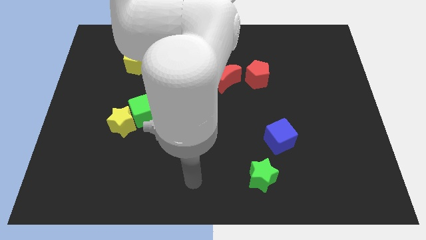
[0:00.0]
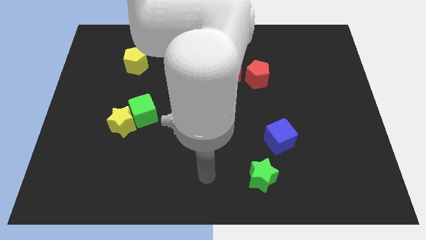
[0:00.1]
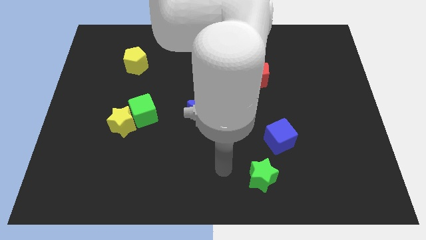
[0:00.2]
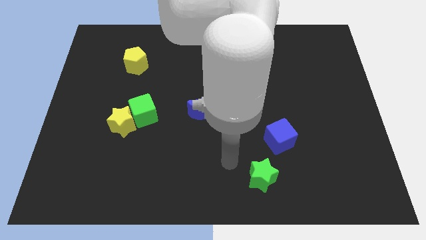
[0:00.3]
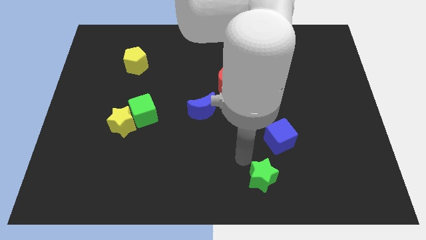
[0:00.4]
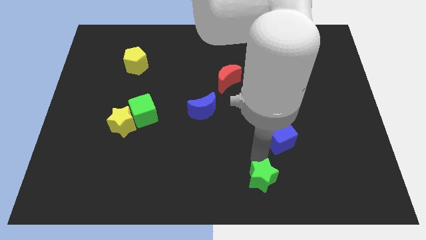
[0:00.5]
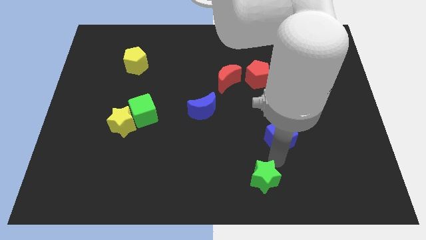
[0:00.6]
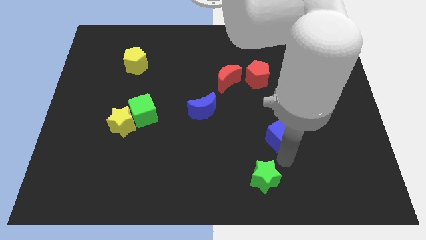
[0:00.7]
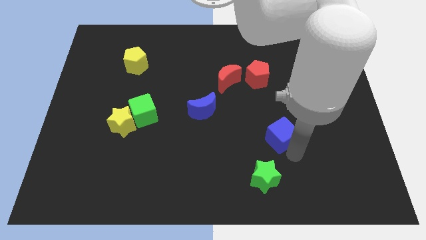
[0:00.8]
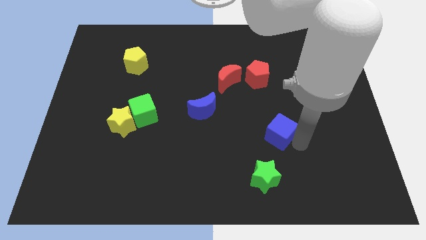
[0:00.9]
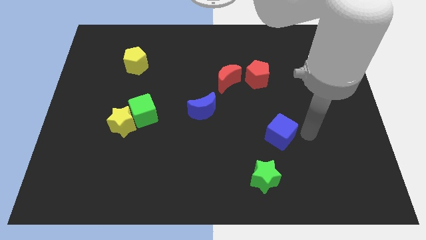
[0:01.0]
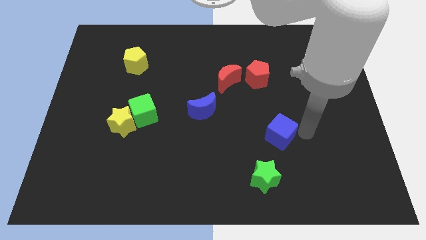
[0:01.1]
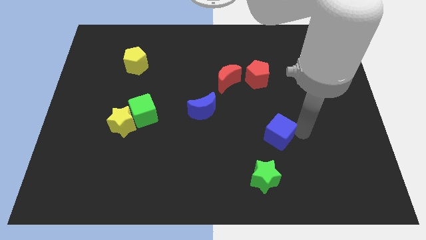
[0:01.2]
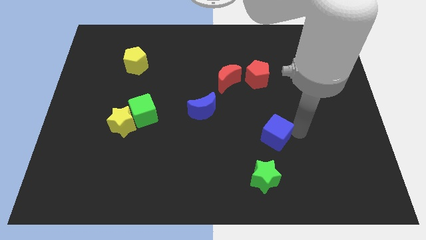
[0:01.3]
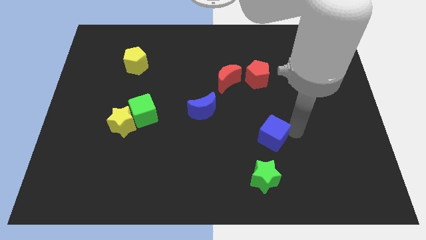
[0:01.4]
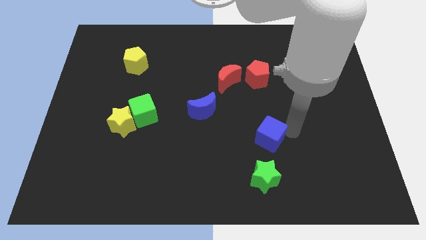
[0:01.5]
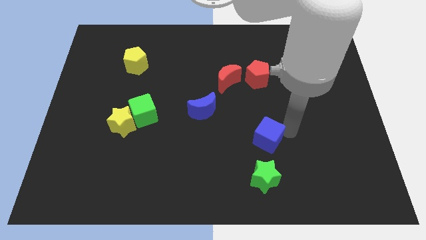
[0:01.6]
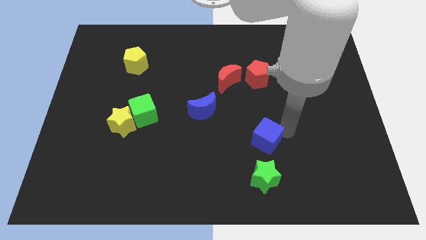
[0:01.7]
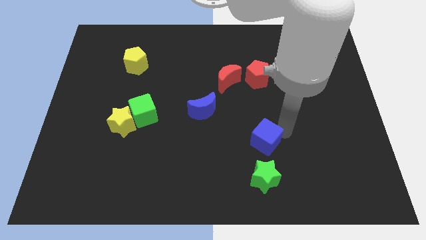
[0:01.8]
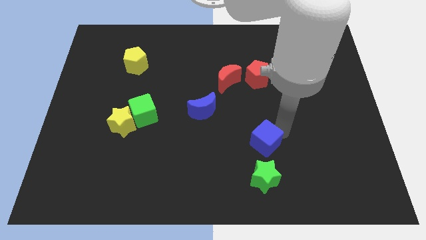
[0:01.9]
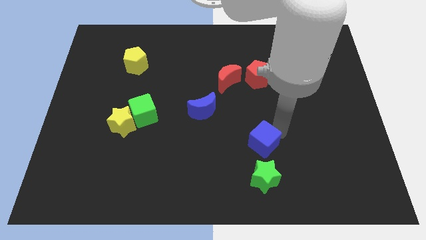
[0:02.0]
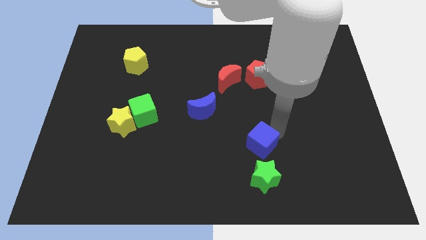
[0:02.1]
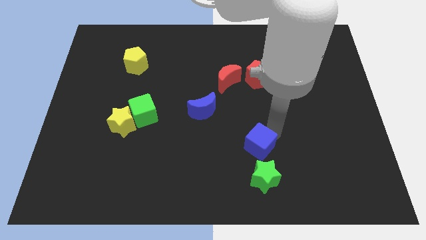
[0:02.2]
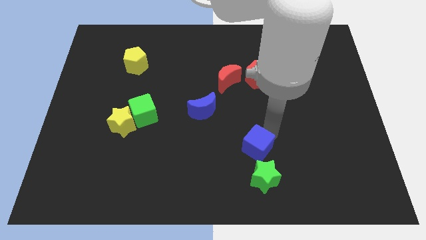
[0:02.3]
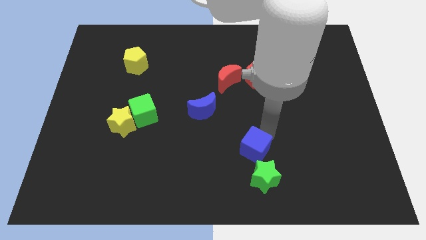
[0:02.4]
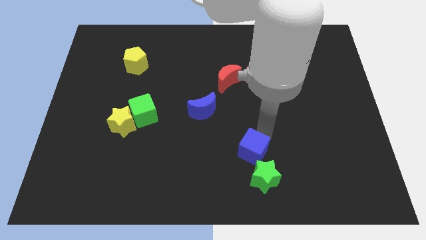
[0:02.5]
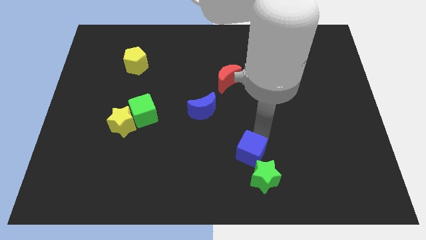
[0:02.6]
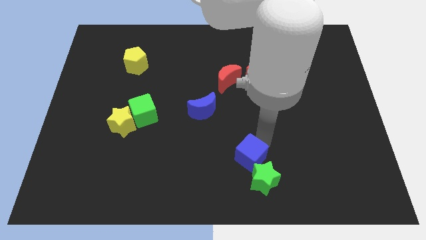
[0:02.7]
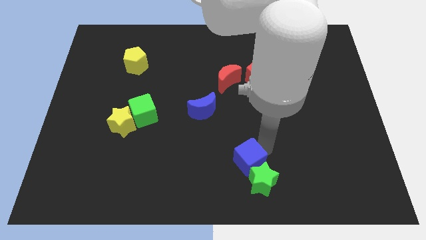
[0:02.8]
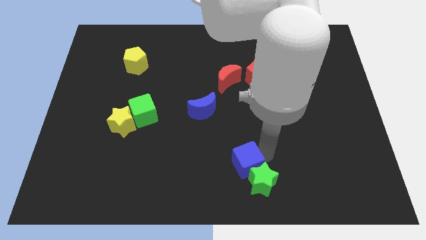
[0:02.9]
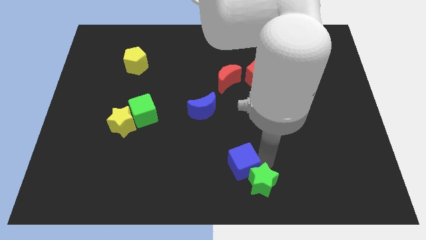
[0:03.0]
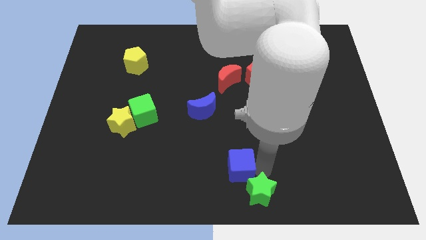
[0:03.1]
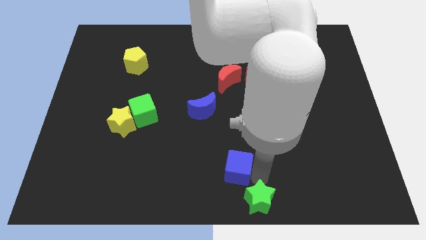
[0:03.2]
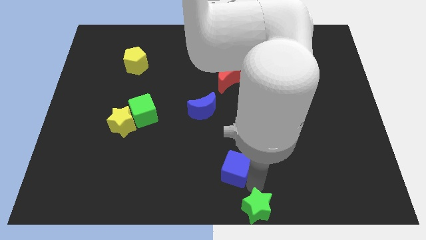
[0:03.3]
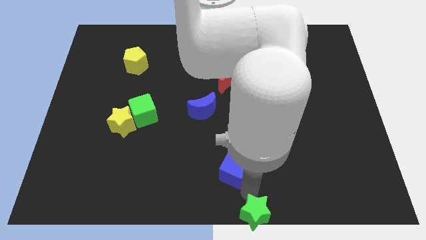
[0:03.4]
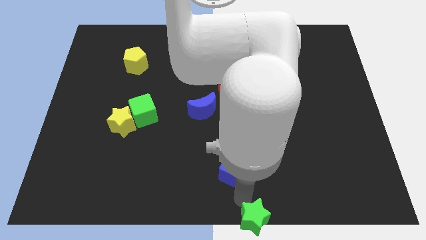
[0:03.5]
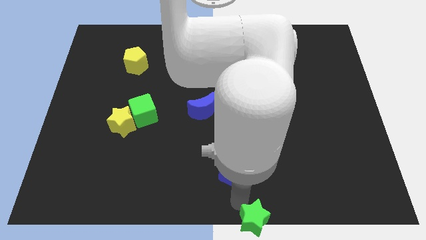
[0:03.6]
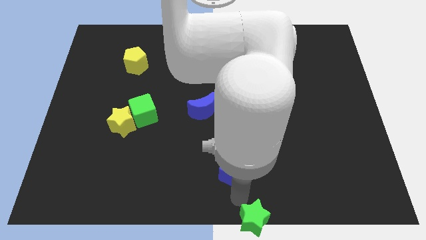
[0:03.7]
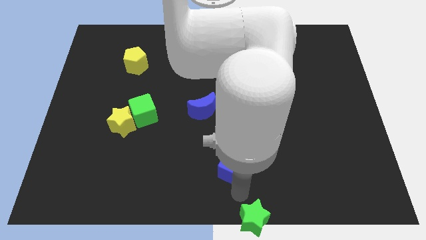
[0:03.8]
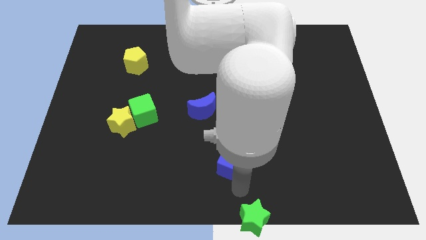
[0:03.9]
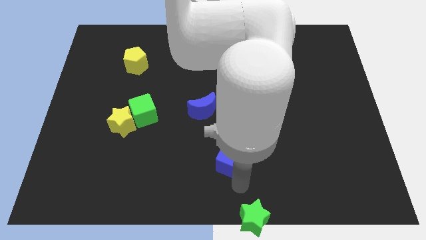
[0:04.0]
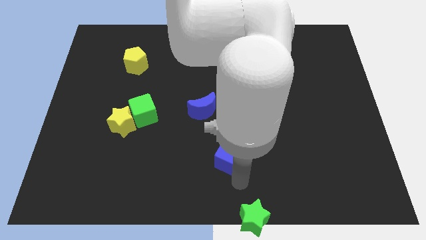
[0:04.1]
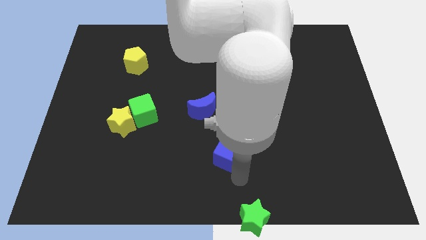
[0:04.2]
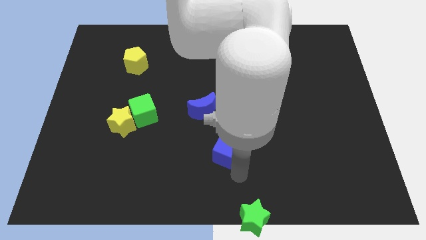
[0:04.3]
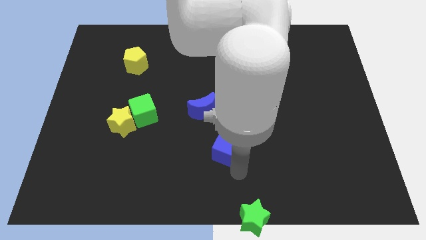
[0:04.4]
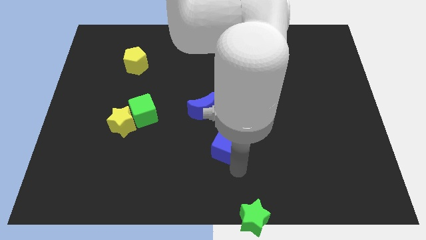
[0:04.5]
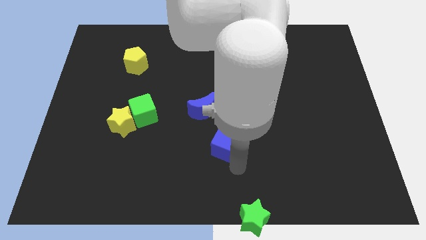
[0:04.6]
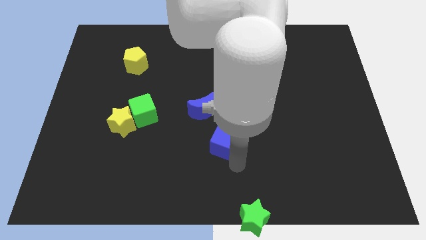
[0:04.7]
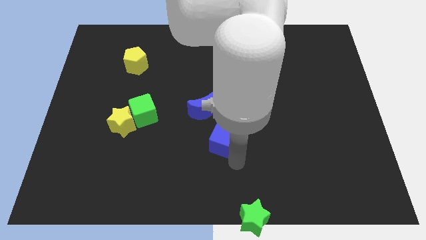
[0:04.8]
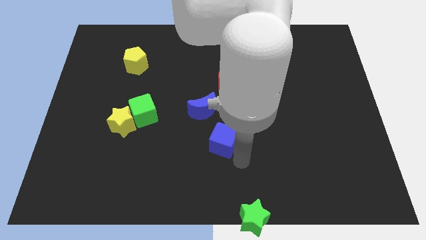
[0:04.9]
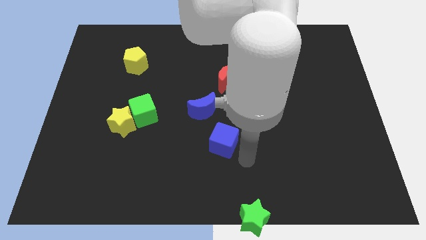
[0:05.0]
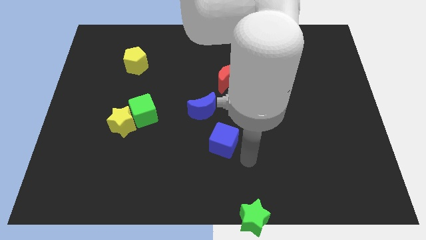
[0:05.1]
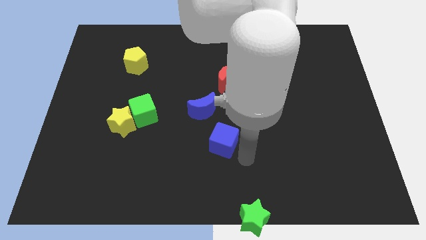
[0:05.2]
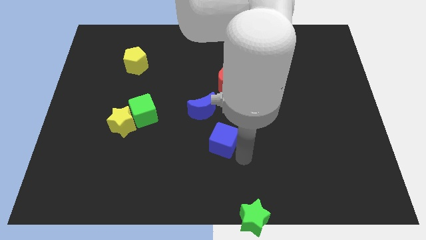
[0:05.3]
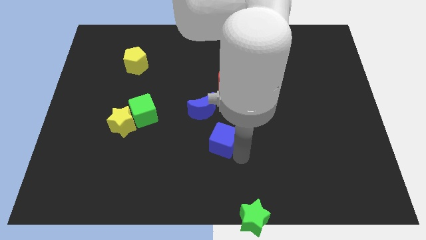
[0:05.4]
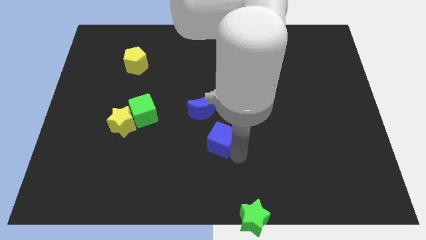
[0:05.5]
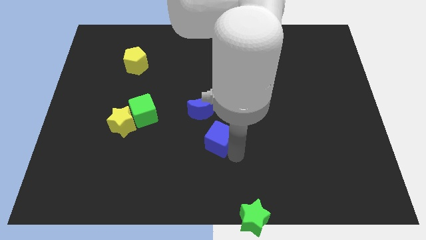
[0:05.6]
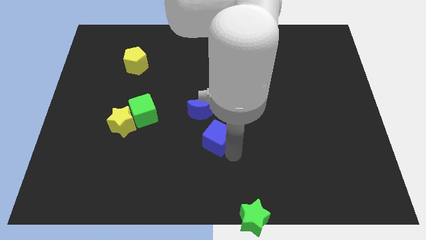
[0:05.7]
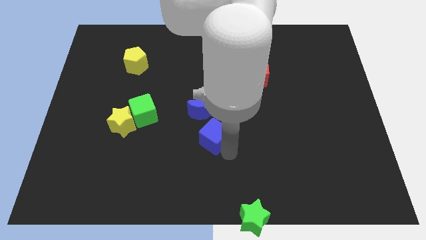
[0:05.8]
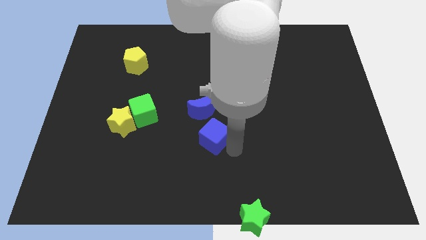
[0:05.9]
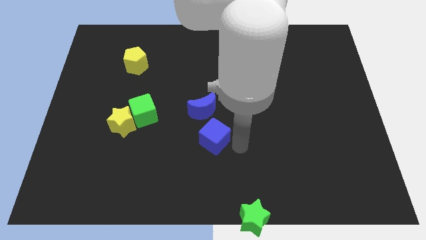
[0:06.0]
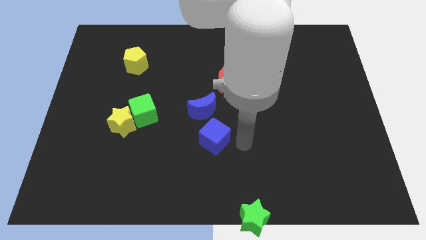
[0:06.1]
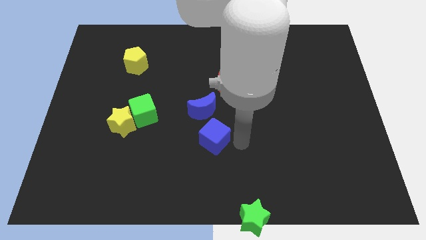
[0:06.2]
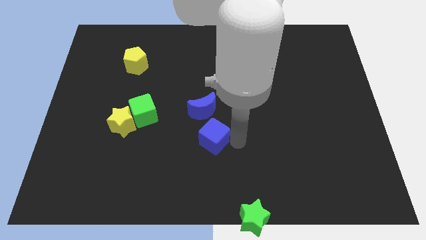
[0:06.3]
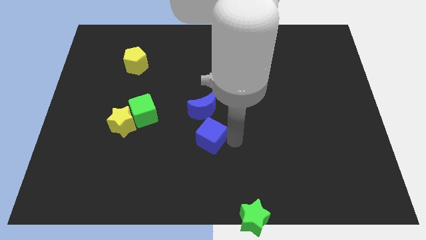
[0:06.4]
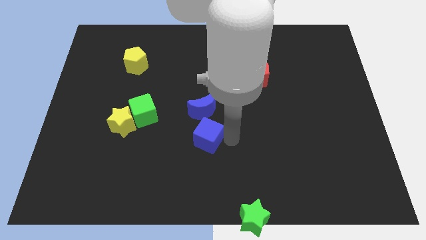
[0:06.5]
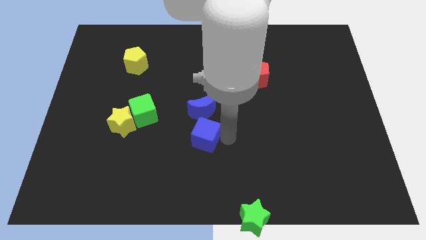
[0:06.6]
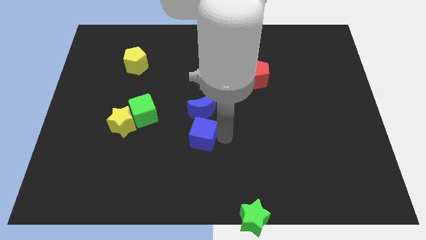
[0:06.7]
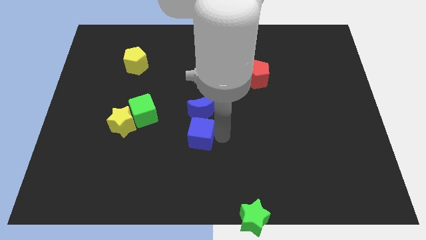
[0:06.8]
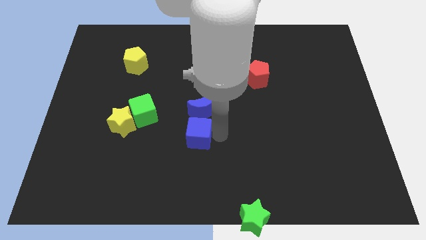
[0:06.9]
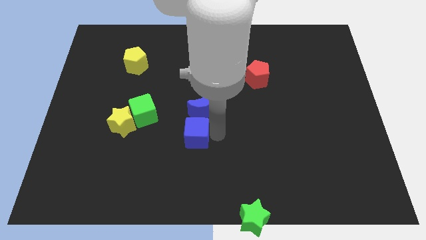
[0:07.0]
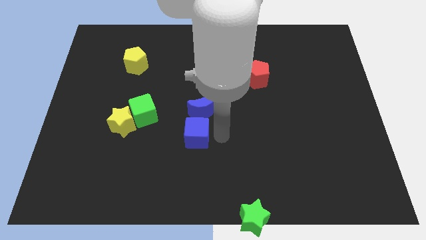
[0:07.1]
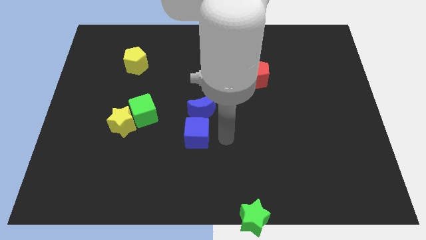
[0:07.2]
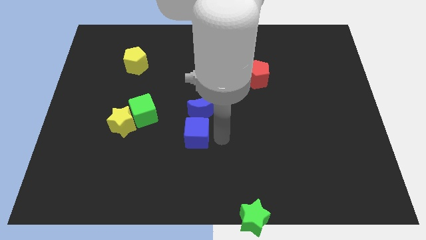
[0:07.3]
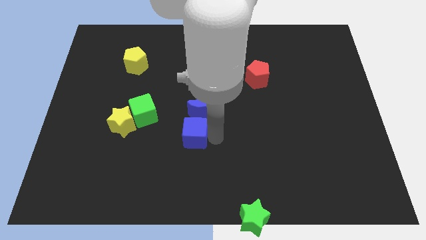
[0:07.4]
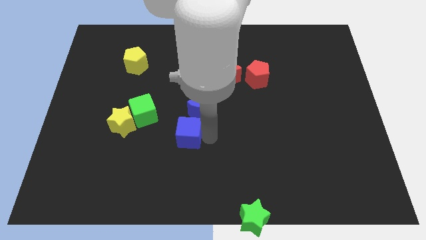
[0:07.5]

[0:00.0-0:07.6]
move the blue cube left
